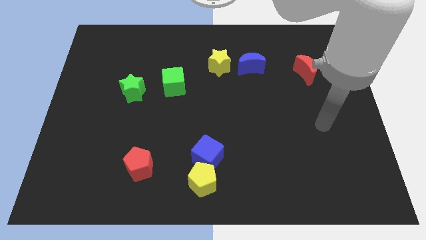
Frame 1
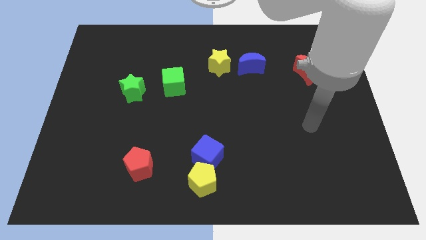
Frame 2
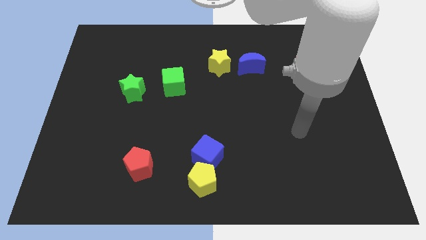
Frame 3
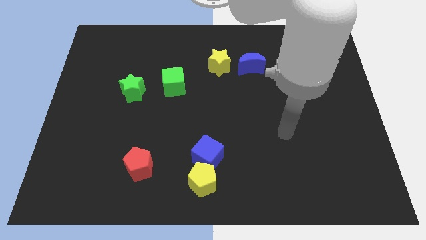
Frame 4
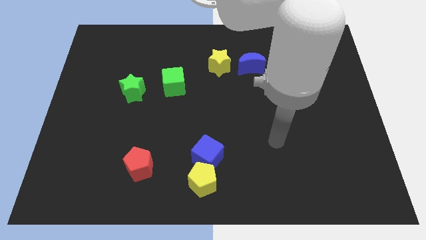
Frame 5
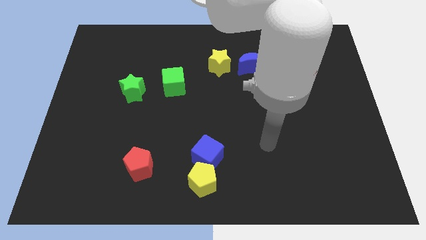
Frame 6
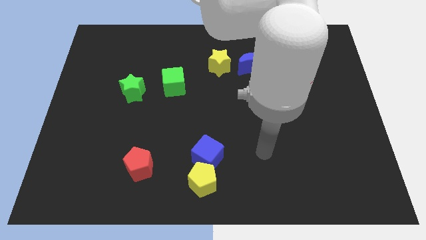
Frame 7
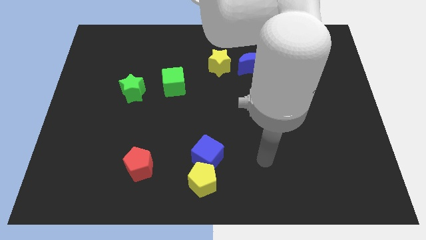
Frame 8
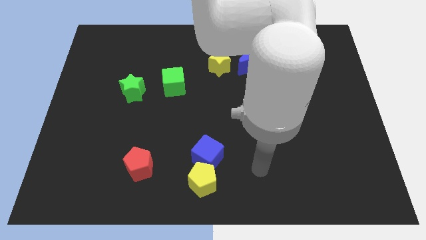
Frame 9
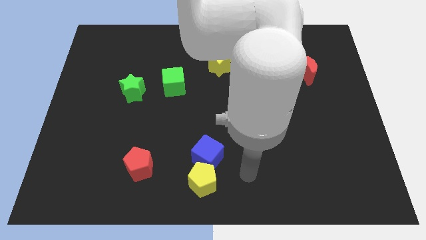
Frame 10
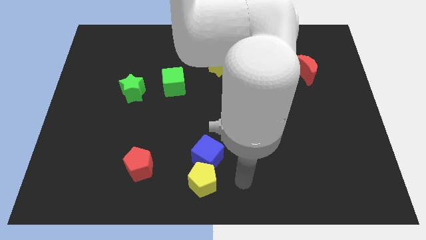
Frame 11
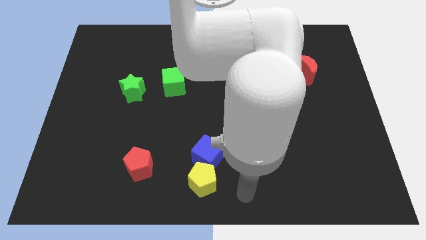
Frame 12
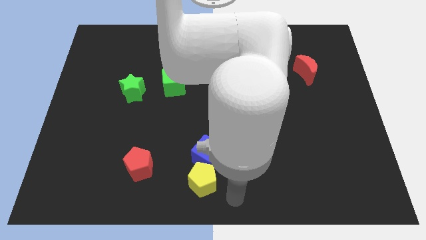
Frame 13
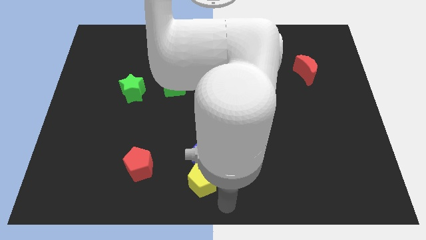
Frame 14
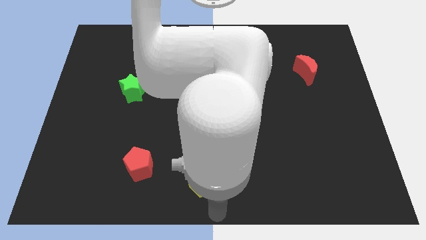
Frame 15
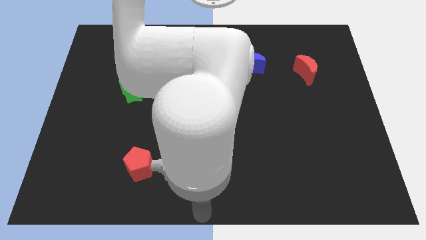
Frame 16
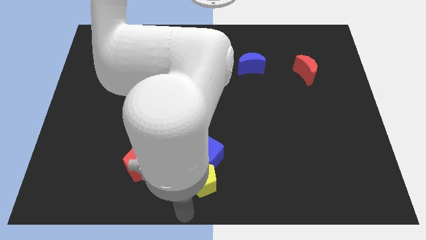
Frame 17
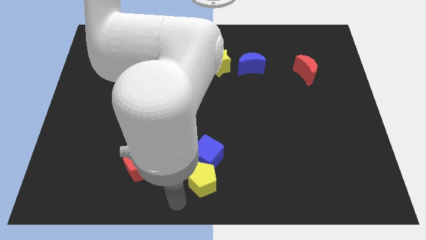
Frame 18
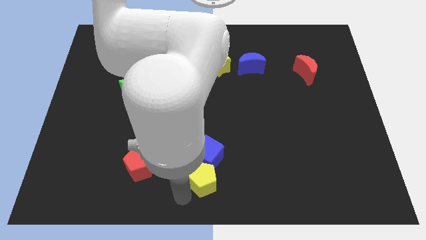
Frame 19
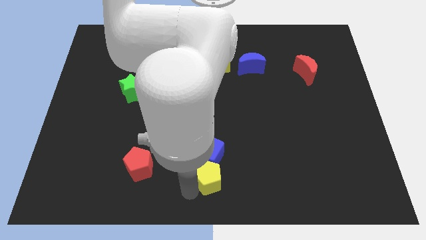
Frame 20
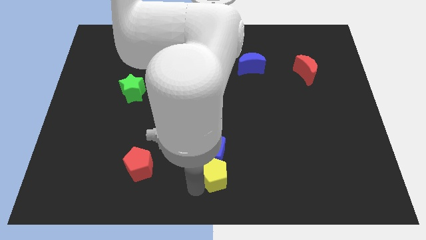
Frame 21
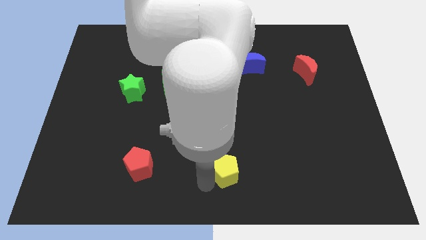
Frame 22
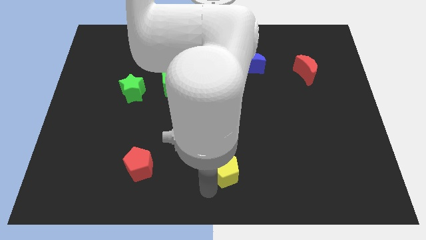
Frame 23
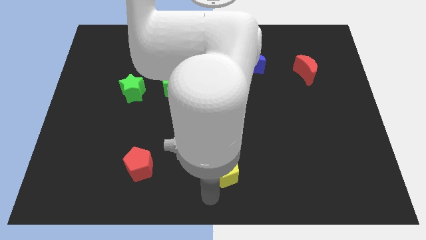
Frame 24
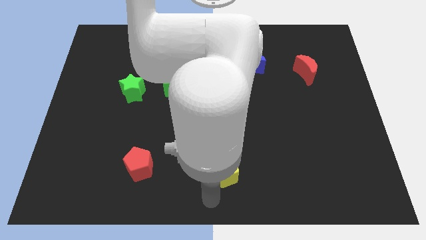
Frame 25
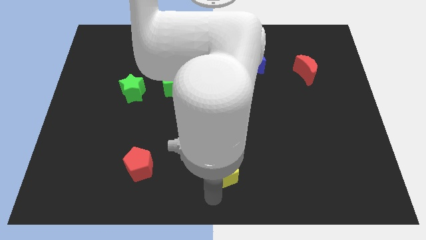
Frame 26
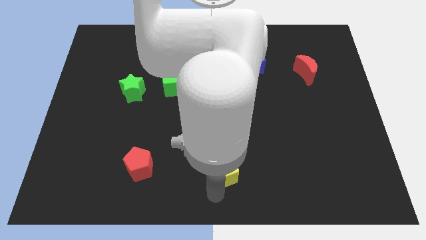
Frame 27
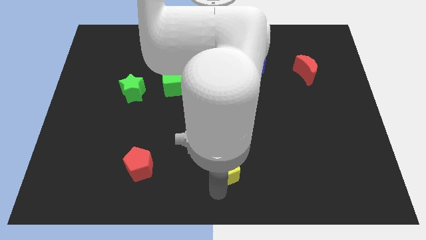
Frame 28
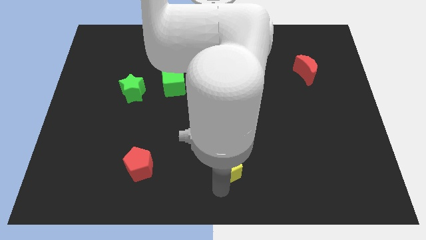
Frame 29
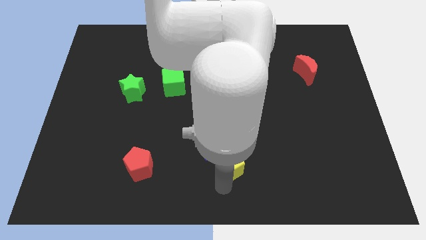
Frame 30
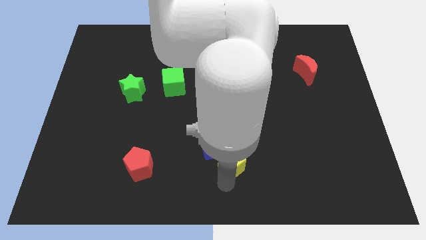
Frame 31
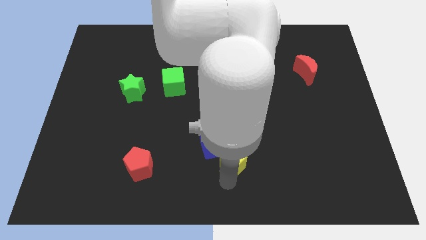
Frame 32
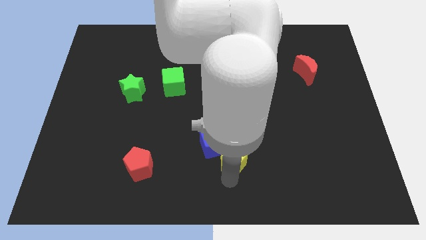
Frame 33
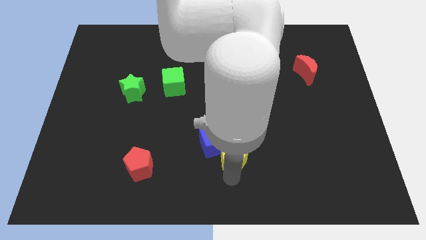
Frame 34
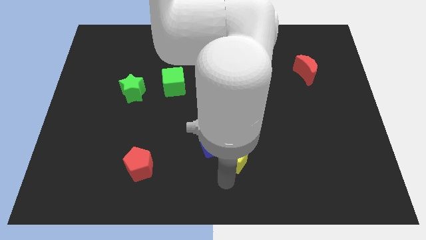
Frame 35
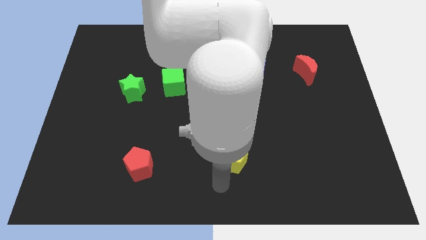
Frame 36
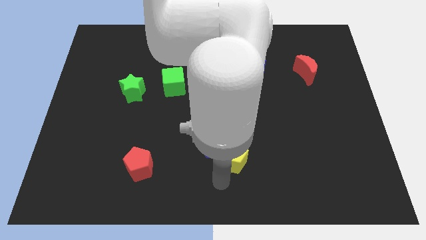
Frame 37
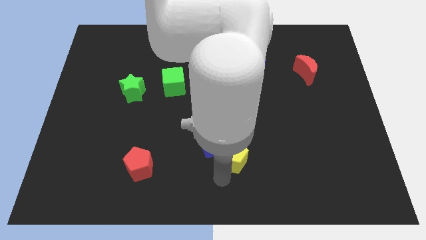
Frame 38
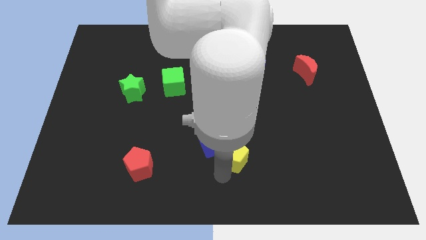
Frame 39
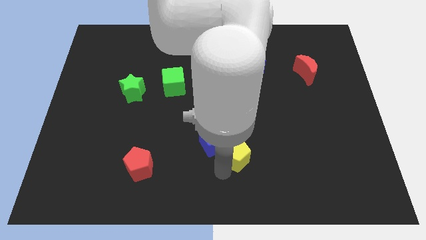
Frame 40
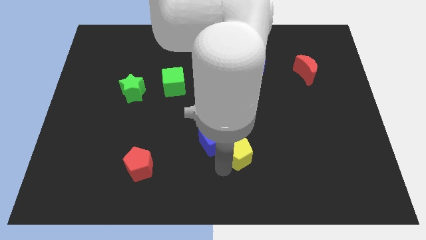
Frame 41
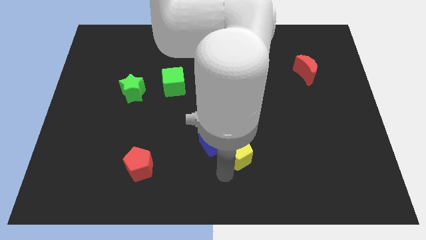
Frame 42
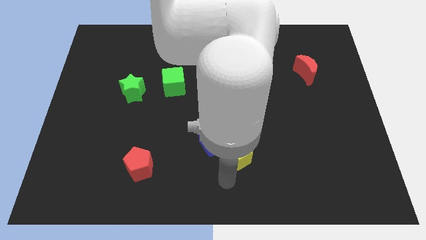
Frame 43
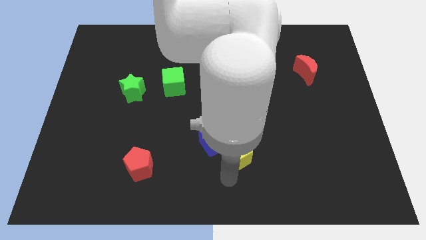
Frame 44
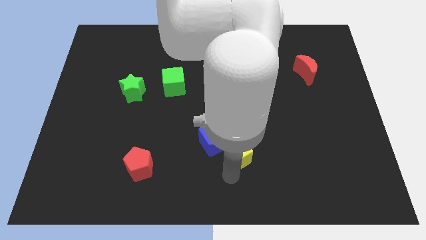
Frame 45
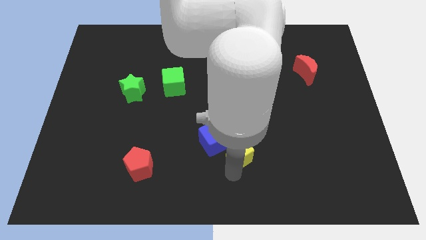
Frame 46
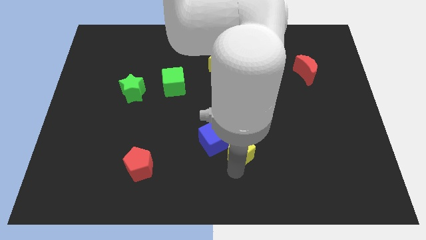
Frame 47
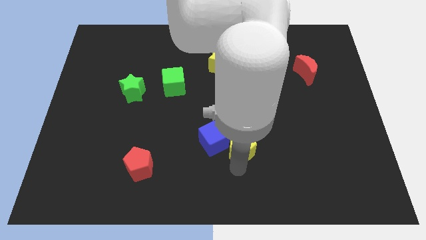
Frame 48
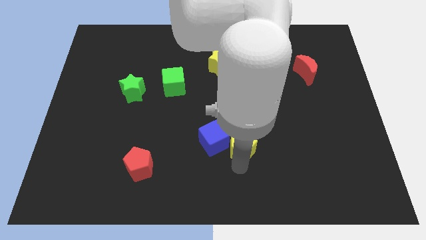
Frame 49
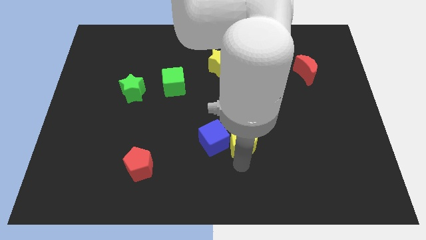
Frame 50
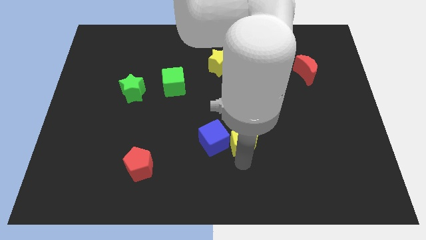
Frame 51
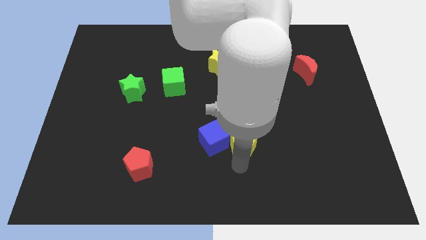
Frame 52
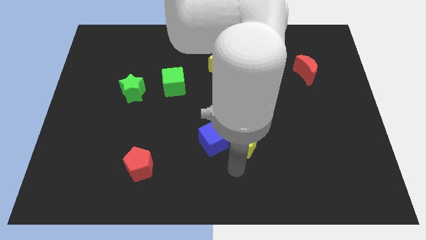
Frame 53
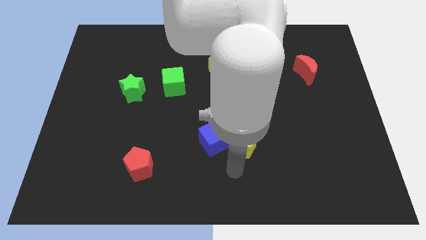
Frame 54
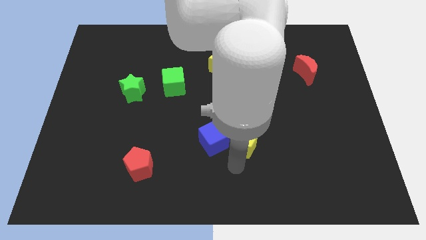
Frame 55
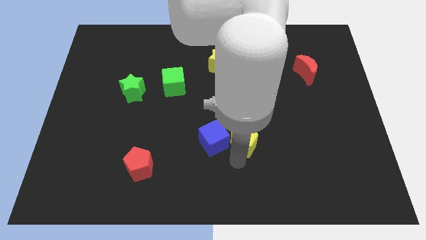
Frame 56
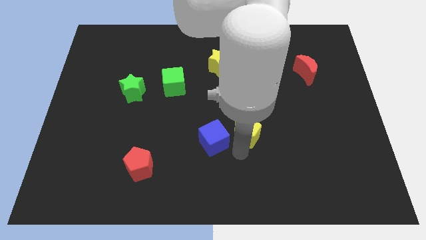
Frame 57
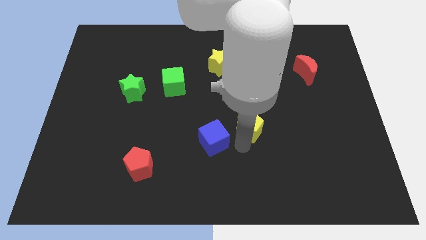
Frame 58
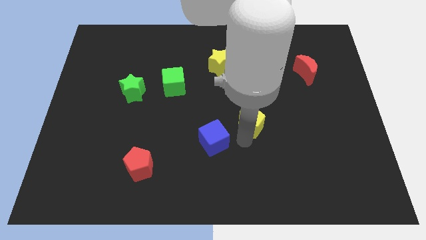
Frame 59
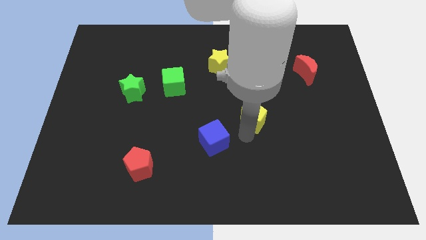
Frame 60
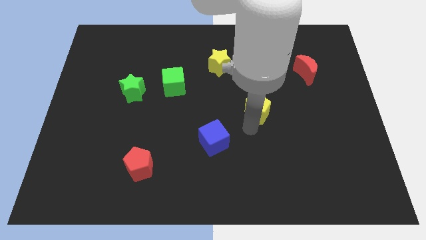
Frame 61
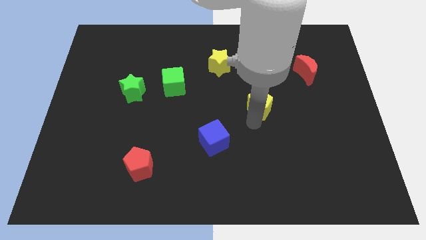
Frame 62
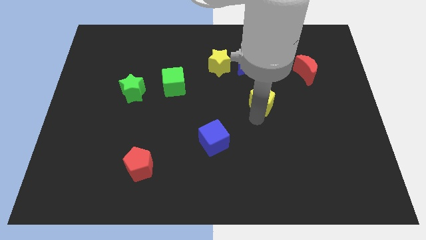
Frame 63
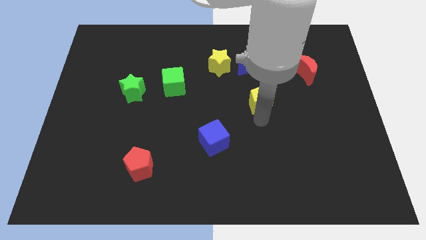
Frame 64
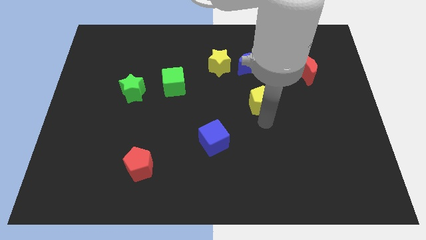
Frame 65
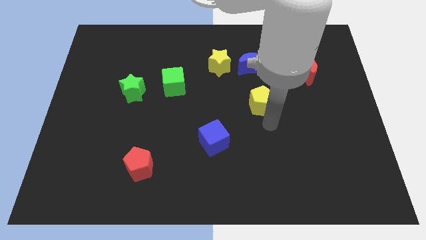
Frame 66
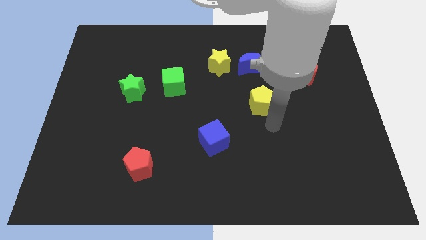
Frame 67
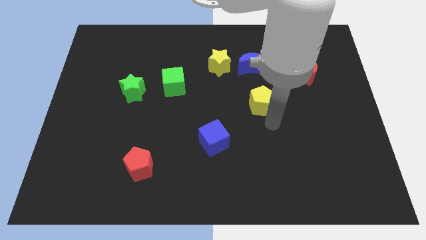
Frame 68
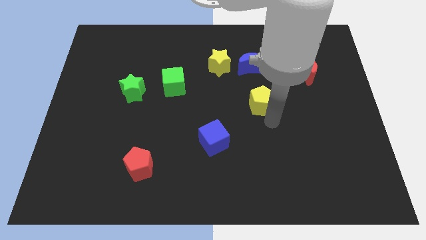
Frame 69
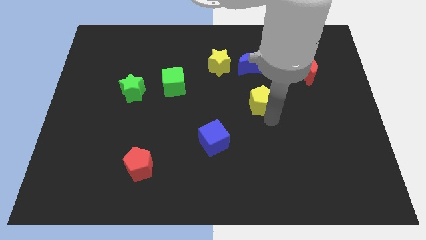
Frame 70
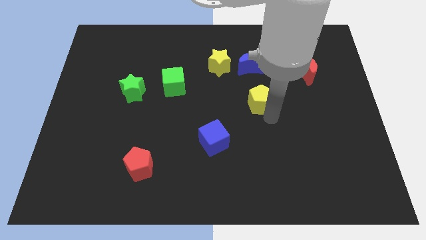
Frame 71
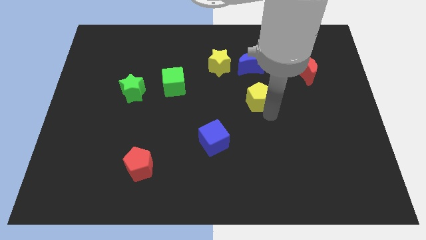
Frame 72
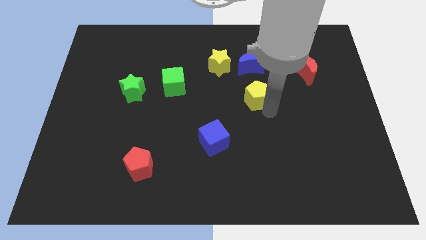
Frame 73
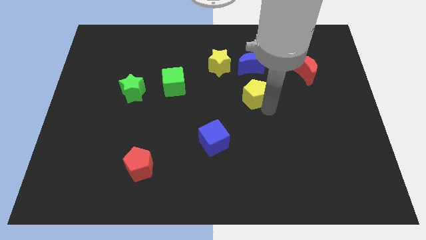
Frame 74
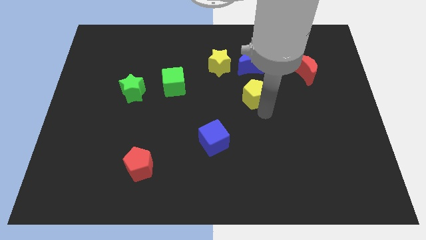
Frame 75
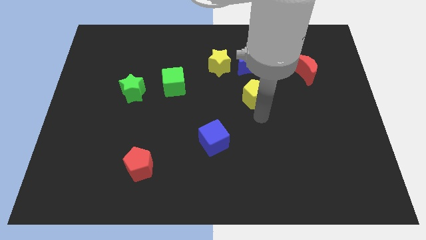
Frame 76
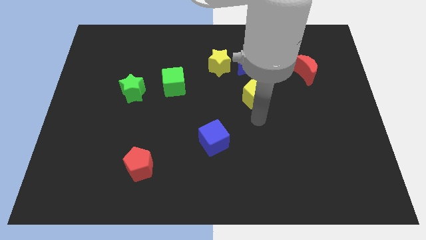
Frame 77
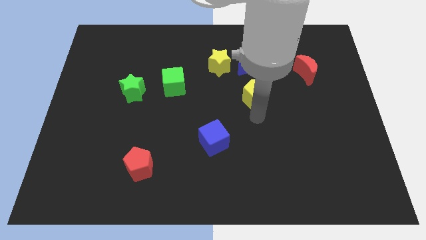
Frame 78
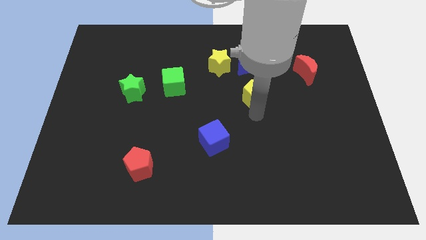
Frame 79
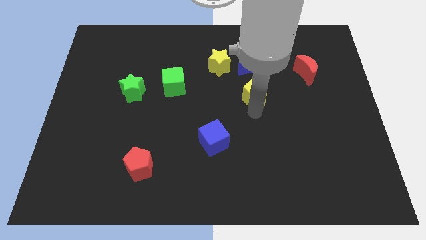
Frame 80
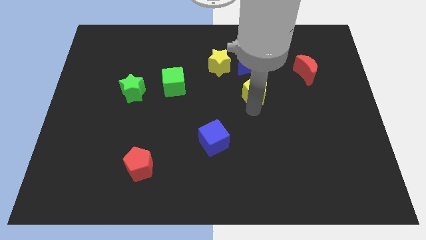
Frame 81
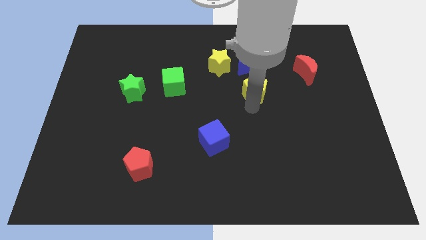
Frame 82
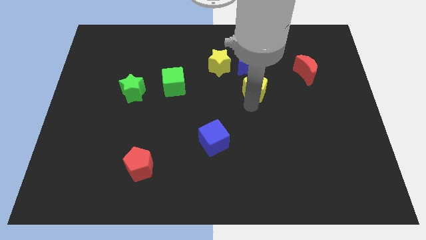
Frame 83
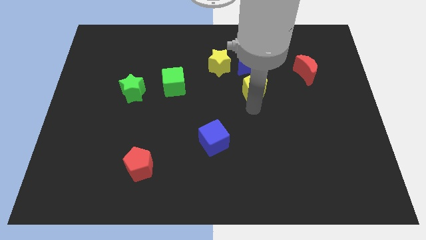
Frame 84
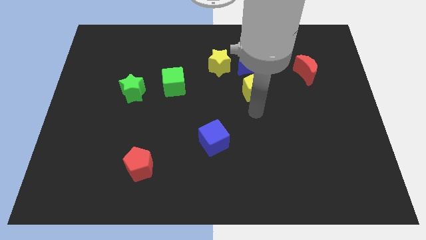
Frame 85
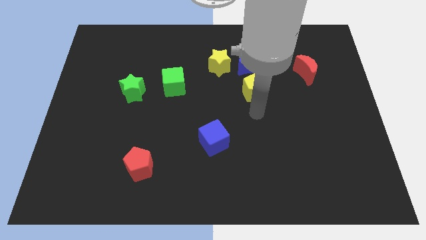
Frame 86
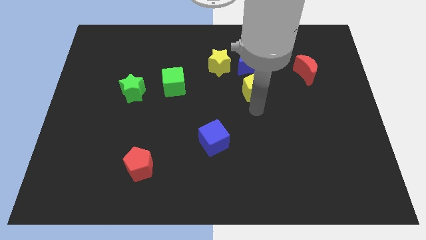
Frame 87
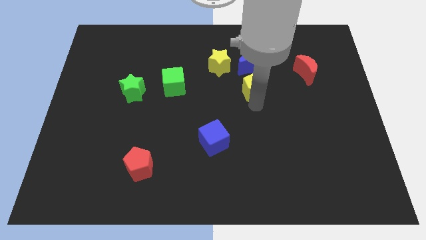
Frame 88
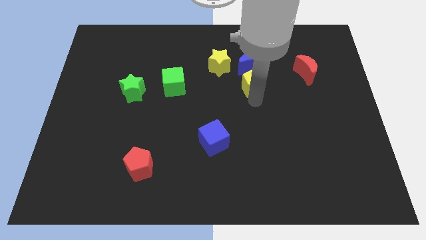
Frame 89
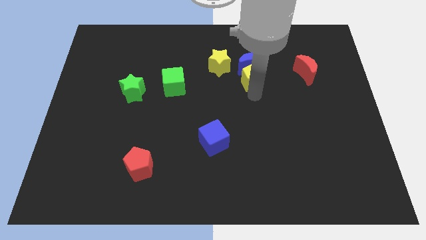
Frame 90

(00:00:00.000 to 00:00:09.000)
push the yellow pentagon to the blue moon
